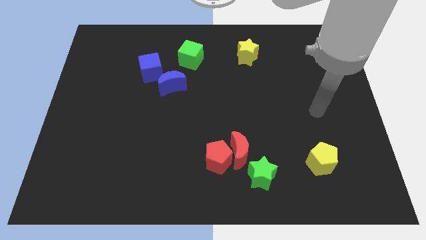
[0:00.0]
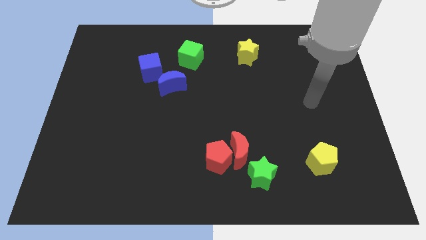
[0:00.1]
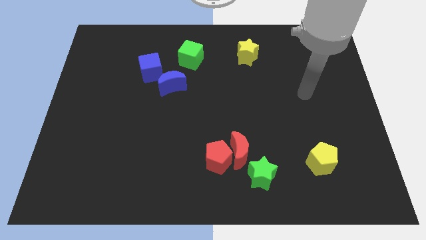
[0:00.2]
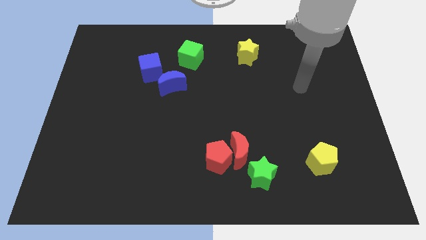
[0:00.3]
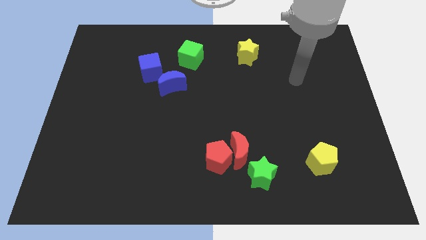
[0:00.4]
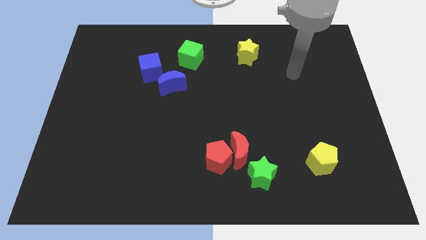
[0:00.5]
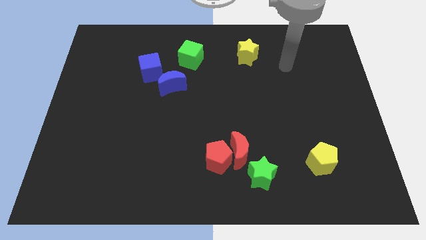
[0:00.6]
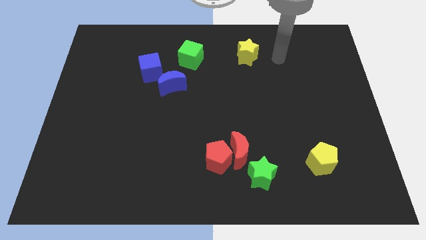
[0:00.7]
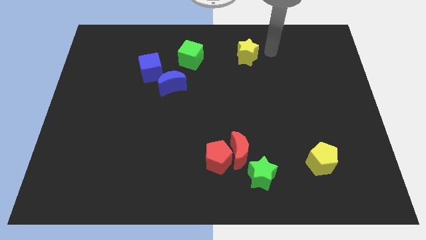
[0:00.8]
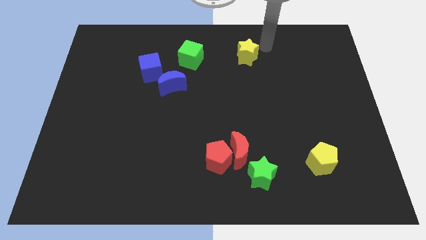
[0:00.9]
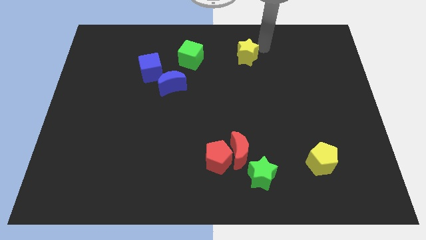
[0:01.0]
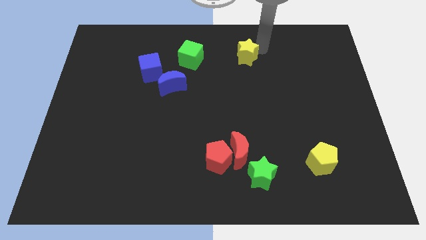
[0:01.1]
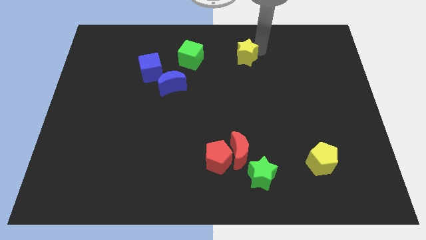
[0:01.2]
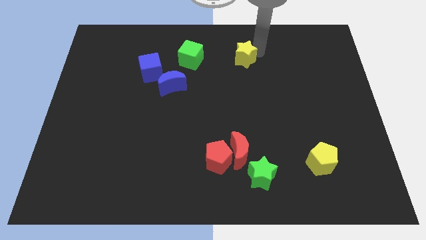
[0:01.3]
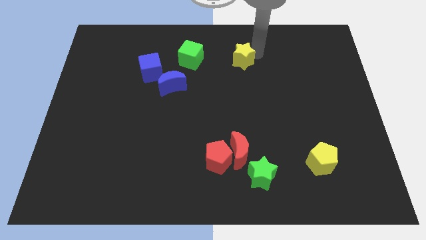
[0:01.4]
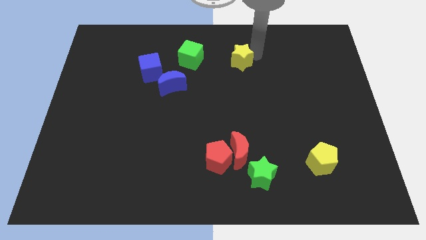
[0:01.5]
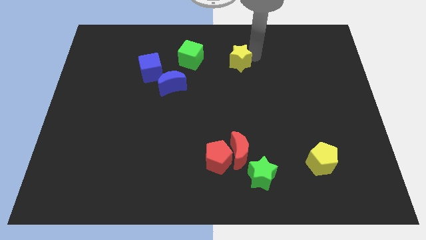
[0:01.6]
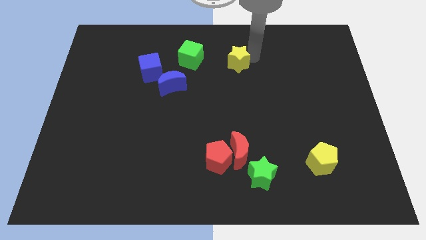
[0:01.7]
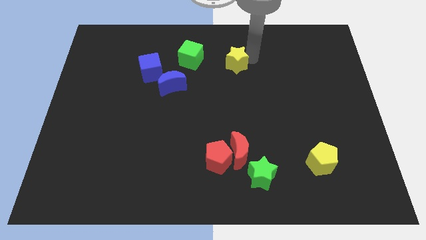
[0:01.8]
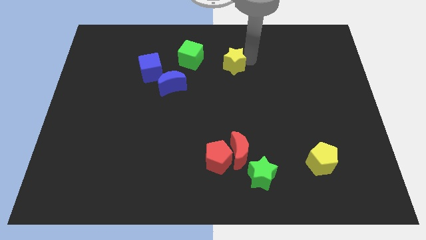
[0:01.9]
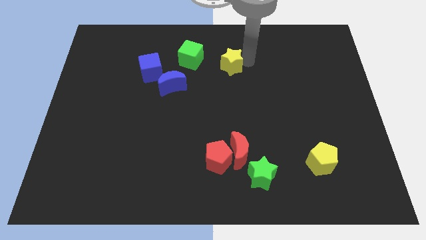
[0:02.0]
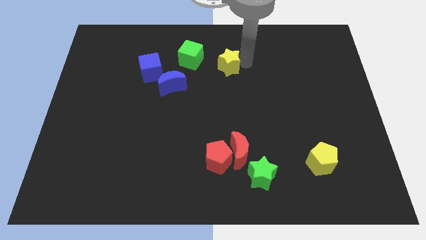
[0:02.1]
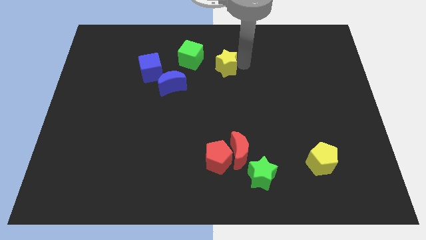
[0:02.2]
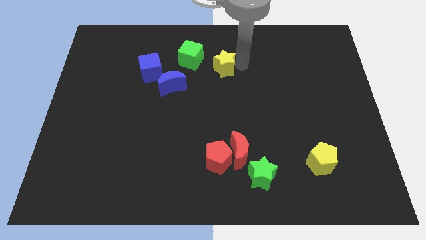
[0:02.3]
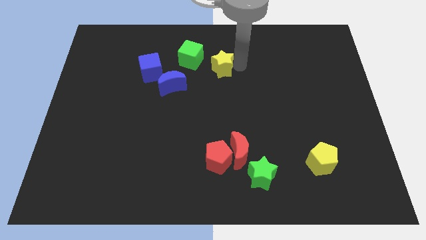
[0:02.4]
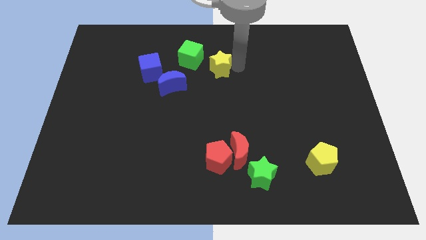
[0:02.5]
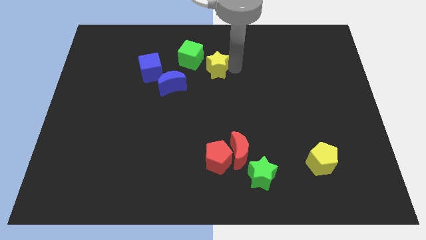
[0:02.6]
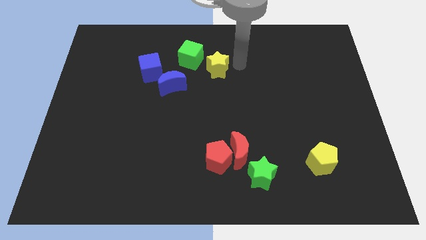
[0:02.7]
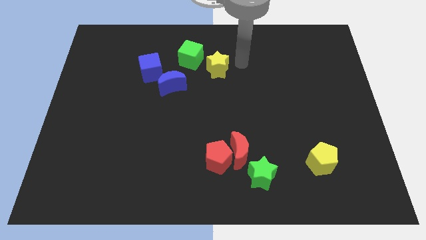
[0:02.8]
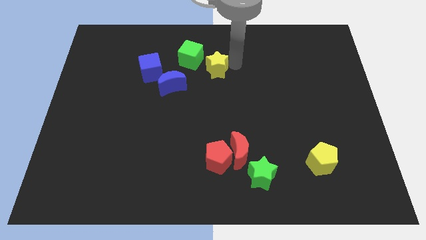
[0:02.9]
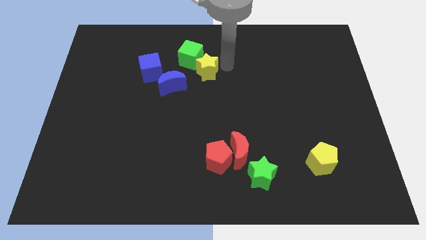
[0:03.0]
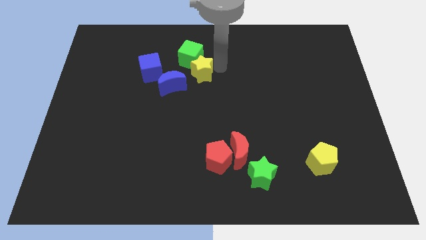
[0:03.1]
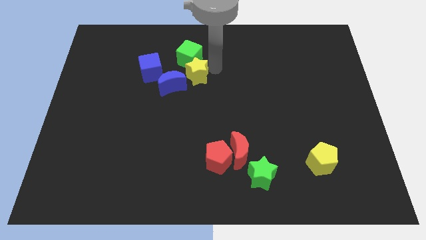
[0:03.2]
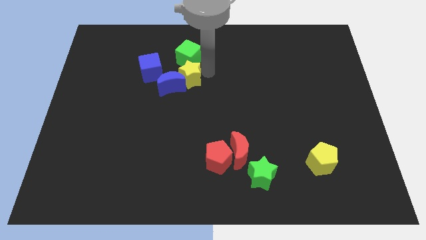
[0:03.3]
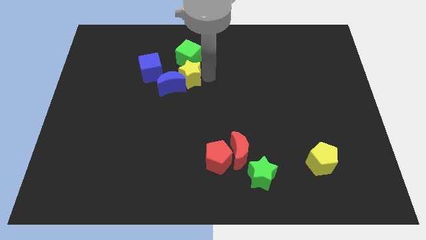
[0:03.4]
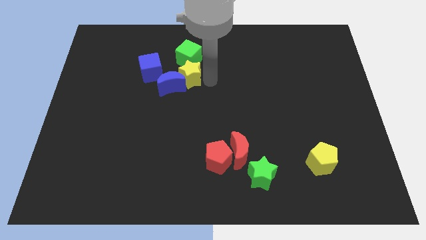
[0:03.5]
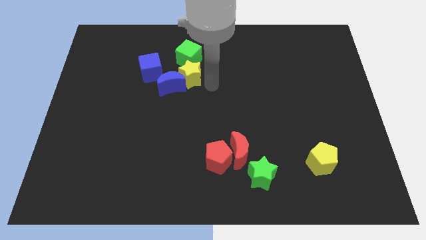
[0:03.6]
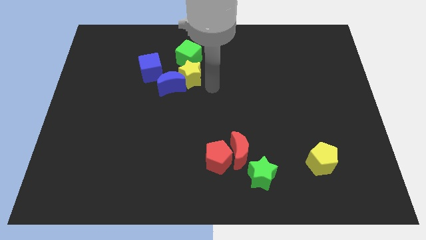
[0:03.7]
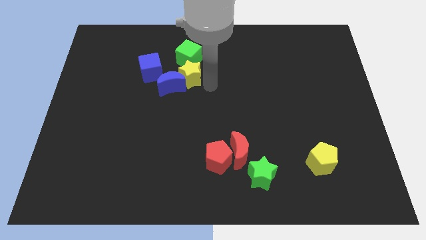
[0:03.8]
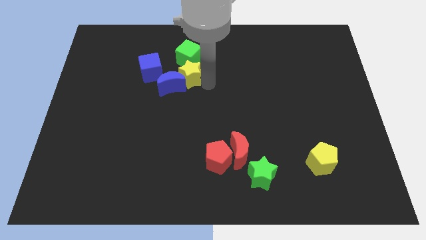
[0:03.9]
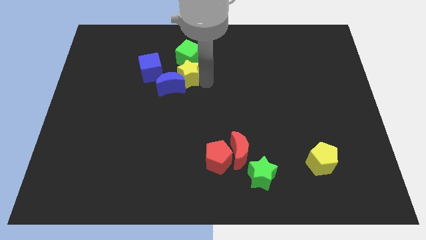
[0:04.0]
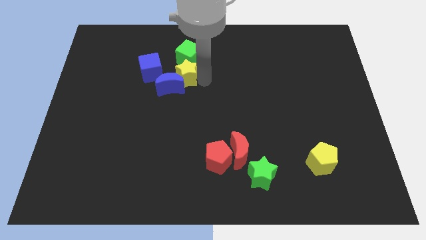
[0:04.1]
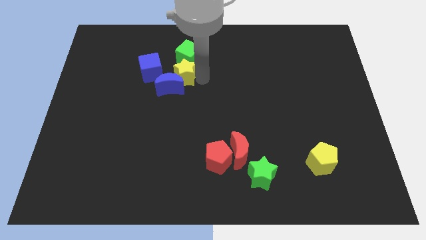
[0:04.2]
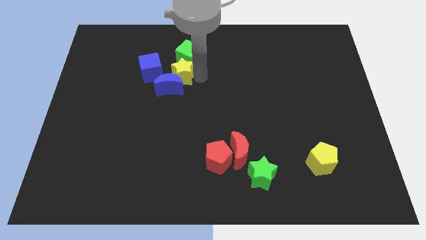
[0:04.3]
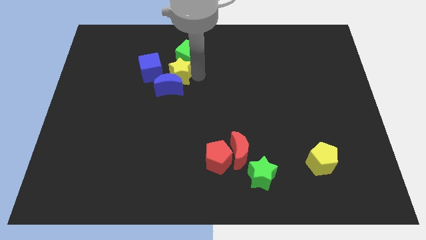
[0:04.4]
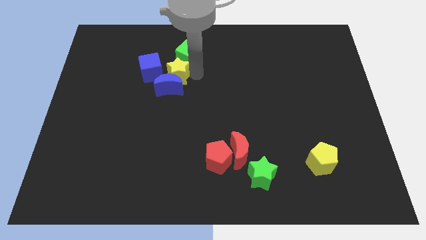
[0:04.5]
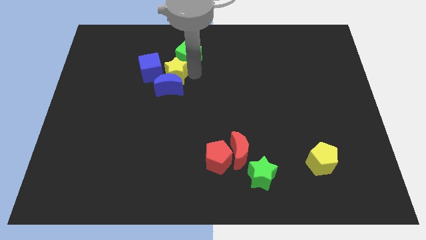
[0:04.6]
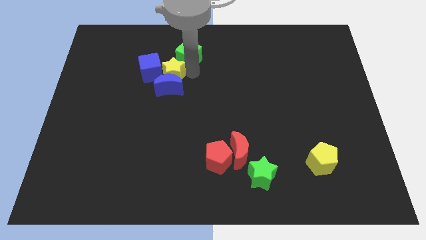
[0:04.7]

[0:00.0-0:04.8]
put the yellow star next to the blue cube

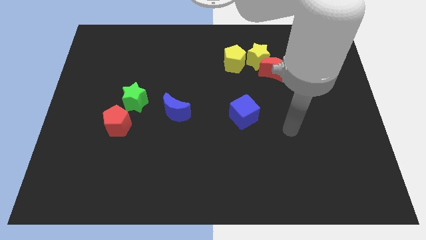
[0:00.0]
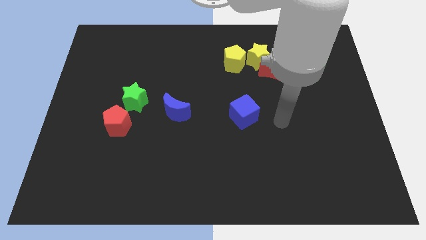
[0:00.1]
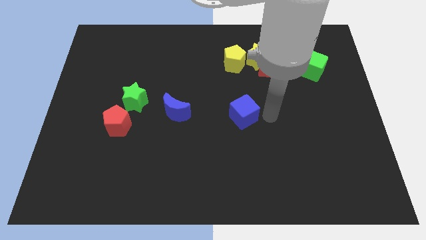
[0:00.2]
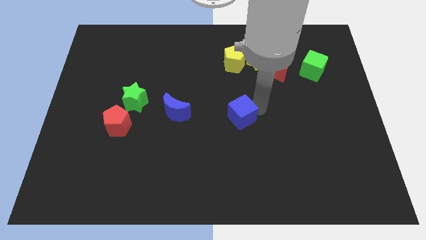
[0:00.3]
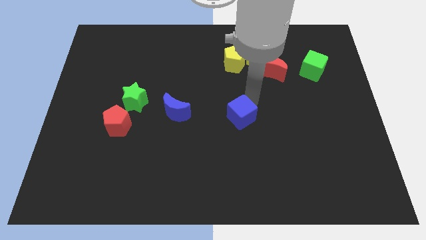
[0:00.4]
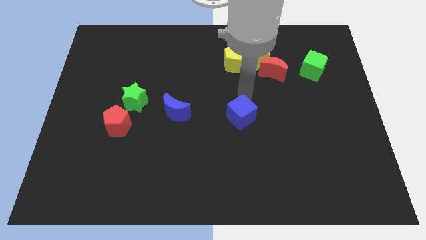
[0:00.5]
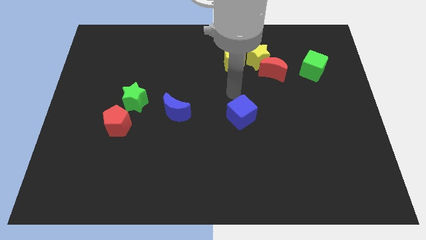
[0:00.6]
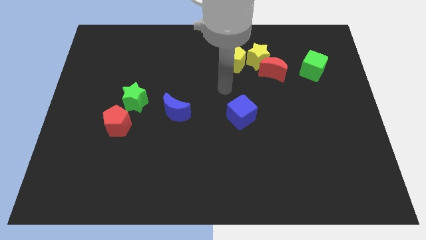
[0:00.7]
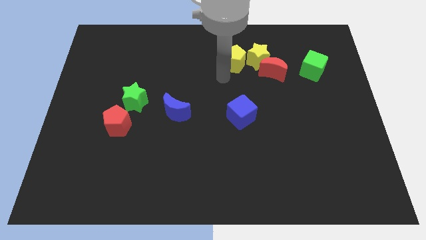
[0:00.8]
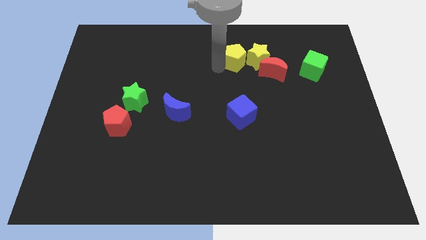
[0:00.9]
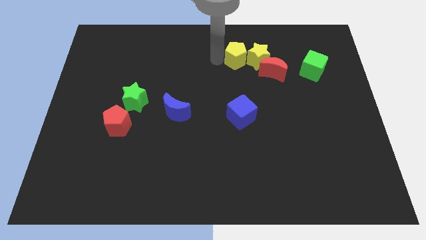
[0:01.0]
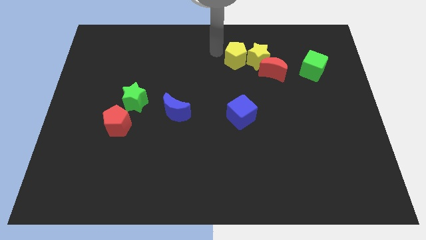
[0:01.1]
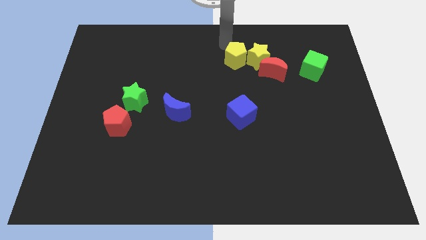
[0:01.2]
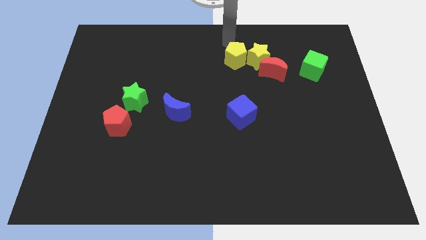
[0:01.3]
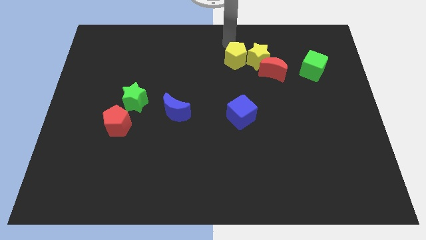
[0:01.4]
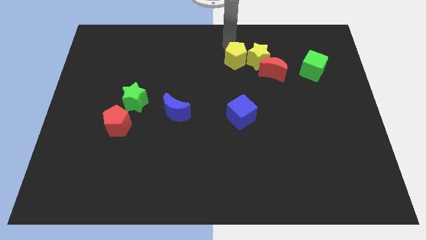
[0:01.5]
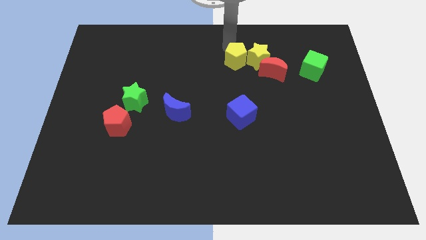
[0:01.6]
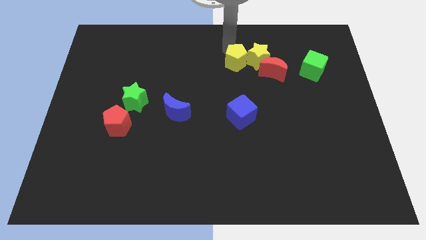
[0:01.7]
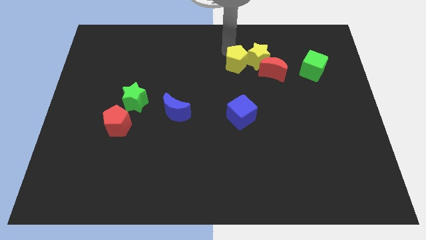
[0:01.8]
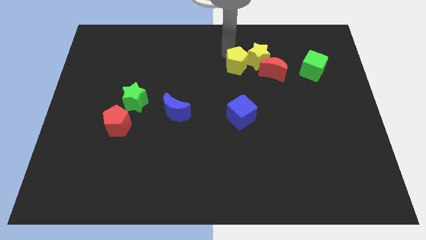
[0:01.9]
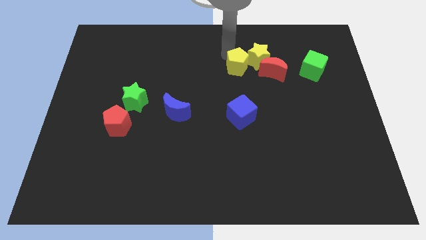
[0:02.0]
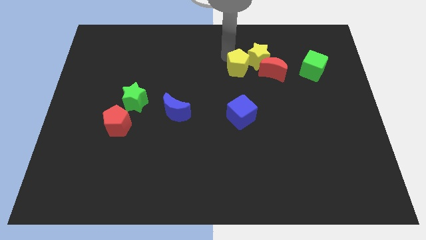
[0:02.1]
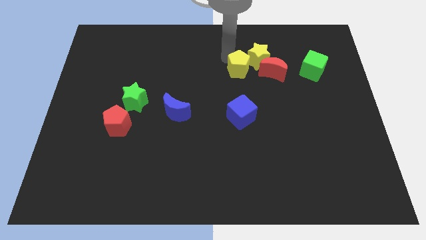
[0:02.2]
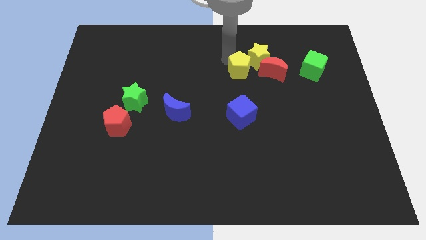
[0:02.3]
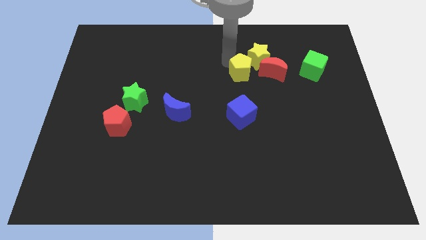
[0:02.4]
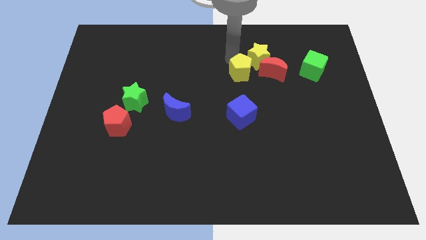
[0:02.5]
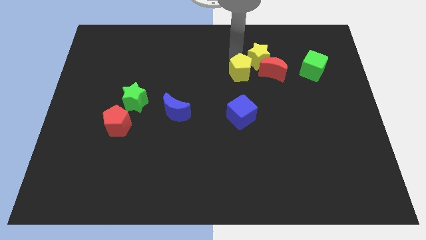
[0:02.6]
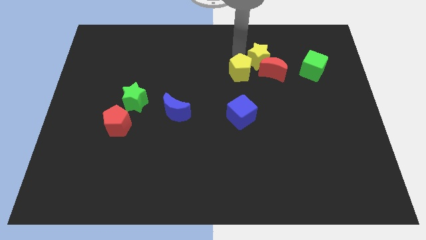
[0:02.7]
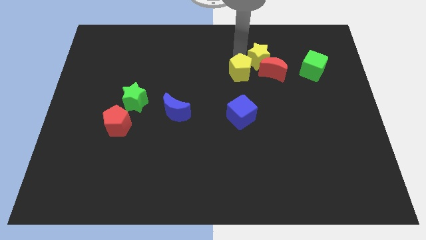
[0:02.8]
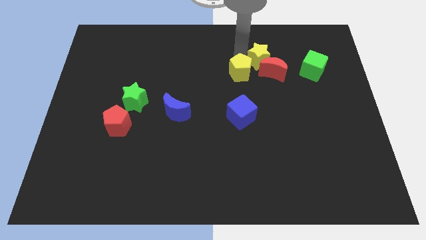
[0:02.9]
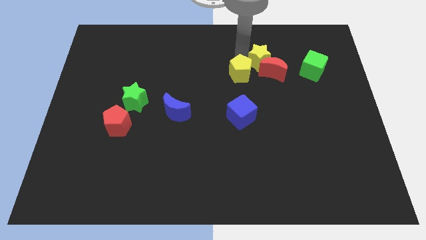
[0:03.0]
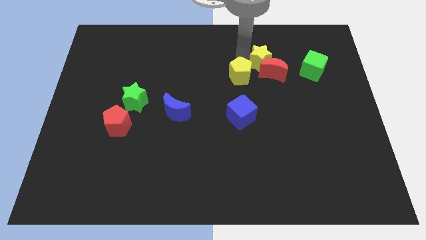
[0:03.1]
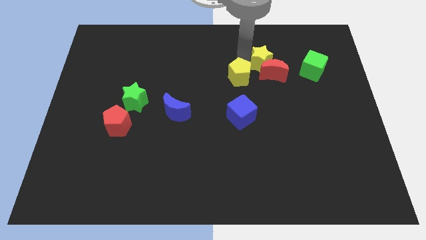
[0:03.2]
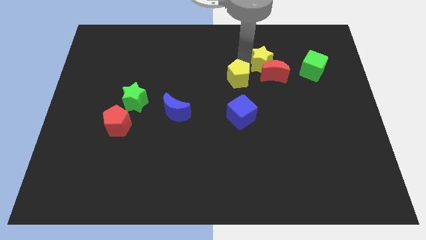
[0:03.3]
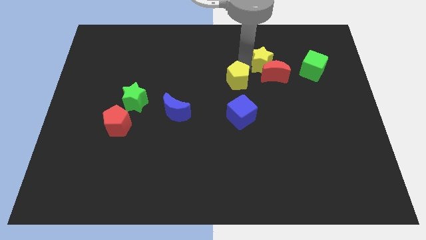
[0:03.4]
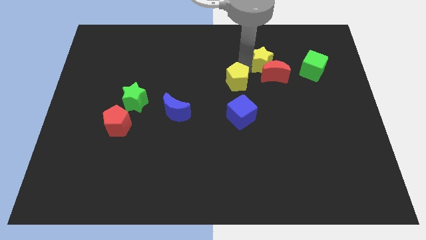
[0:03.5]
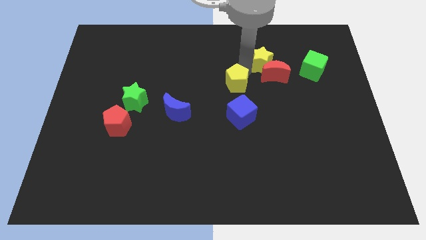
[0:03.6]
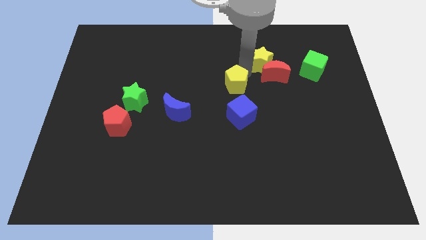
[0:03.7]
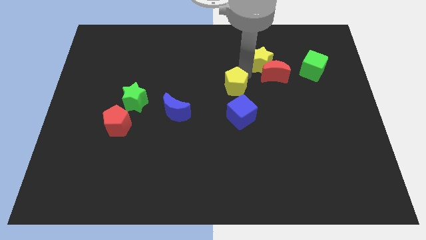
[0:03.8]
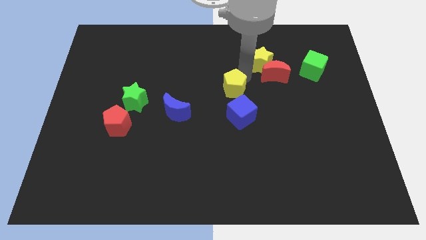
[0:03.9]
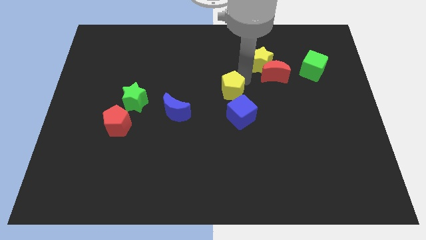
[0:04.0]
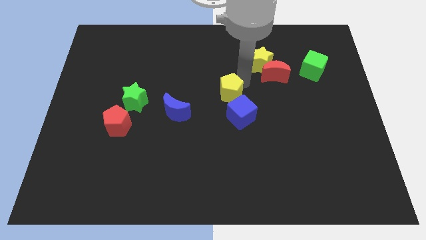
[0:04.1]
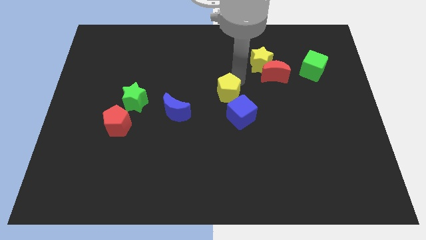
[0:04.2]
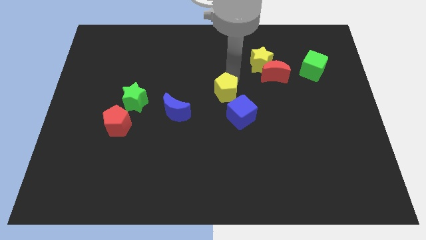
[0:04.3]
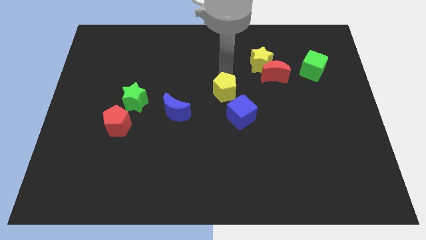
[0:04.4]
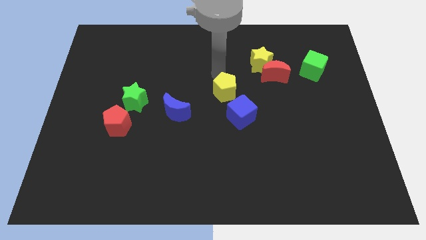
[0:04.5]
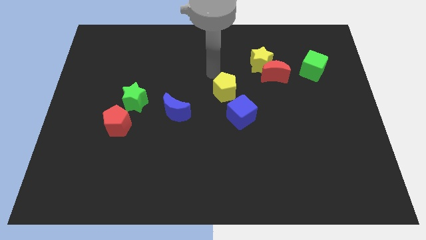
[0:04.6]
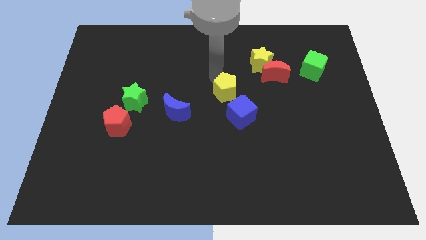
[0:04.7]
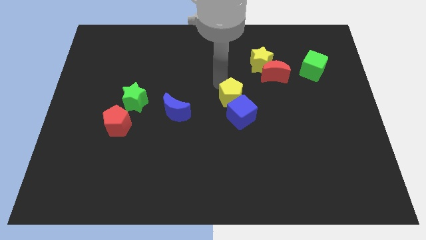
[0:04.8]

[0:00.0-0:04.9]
slide the yellow pentagon close to the blue cube
